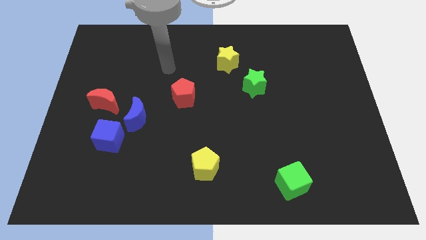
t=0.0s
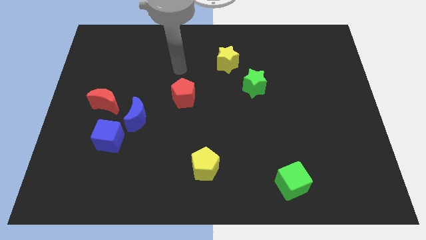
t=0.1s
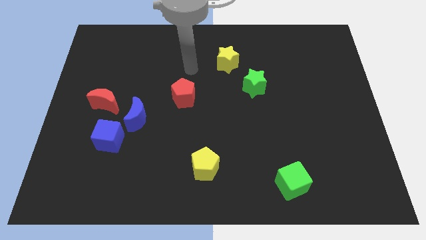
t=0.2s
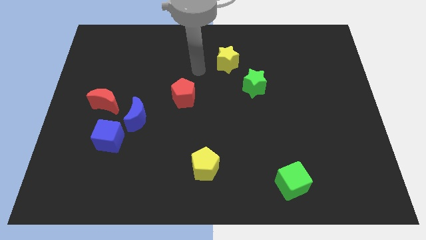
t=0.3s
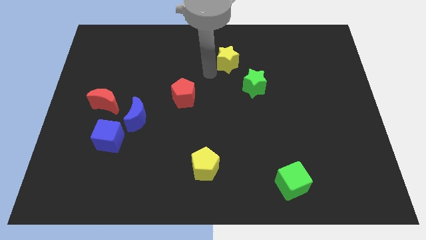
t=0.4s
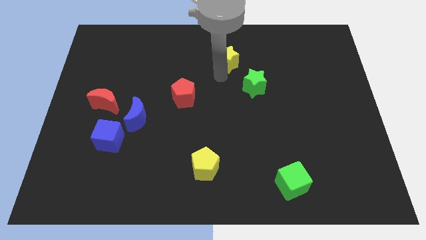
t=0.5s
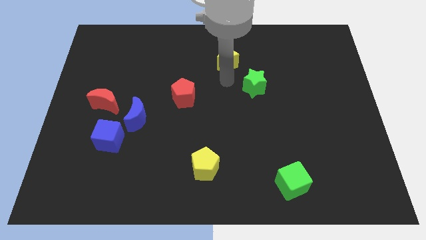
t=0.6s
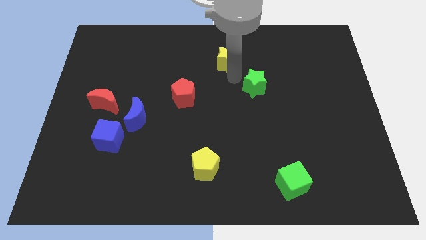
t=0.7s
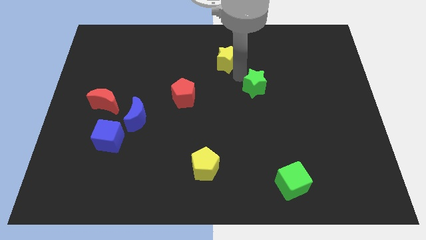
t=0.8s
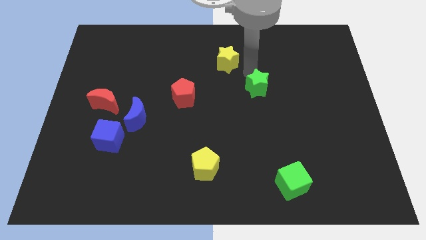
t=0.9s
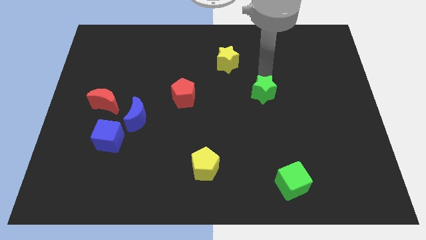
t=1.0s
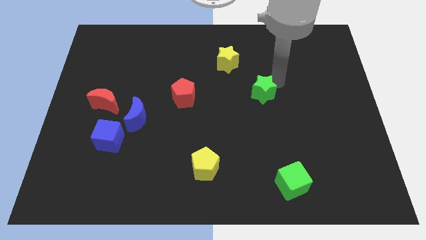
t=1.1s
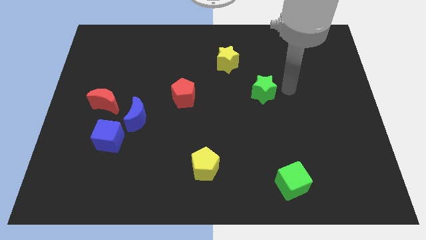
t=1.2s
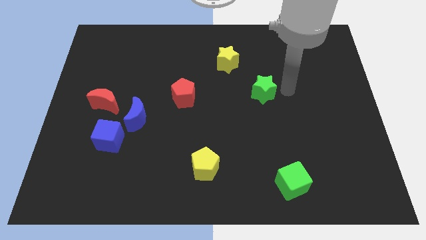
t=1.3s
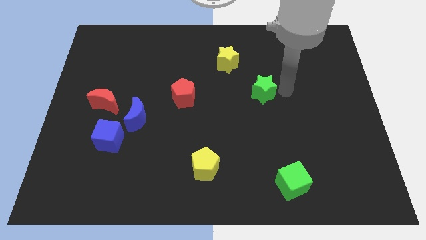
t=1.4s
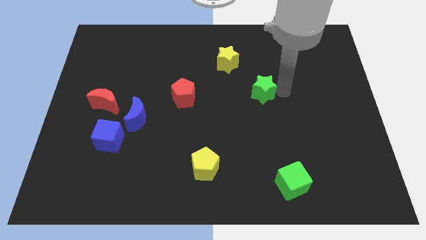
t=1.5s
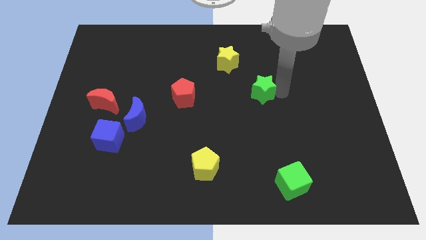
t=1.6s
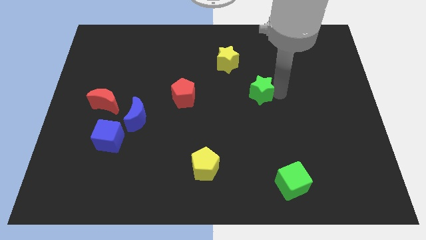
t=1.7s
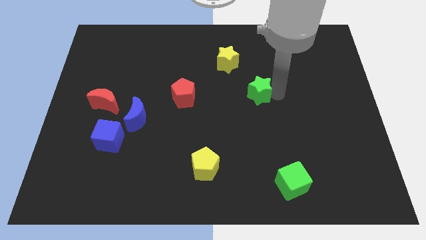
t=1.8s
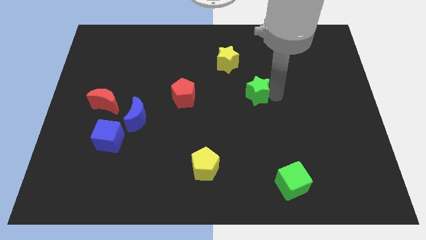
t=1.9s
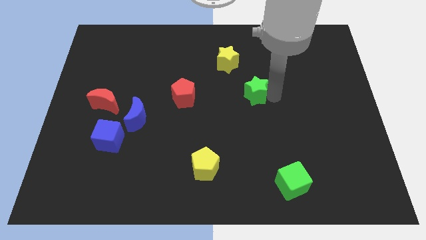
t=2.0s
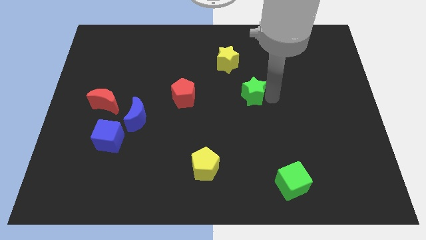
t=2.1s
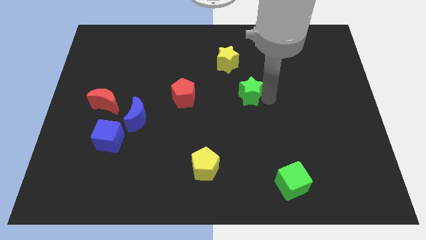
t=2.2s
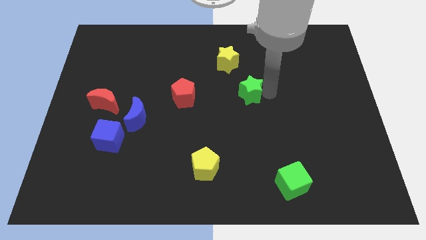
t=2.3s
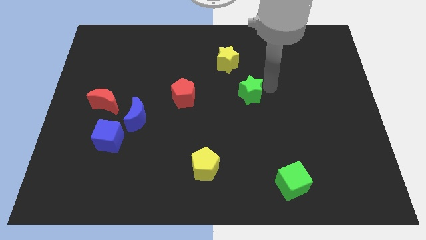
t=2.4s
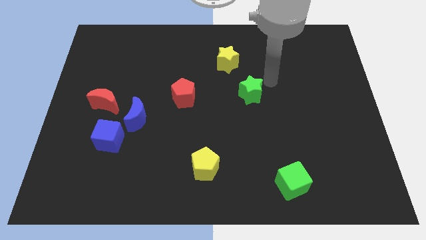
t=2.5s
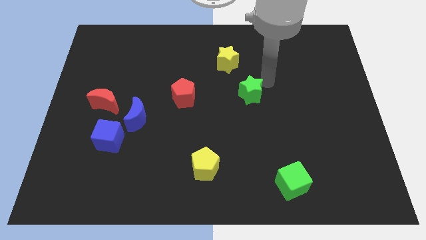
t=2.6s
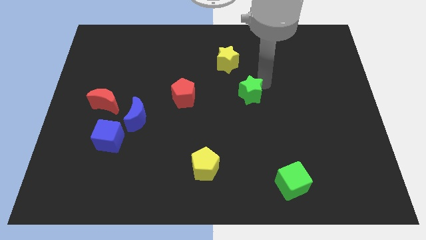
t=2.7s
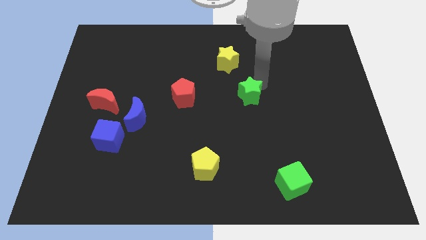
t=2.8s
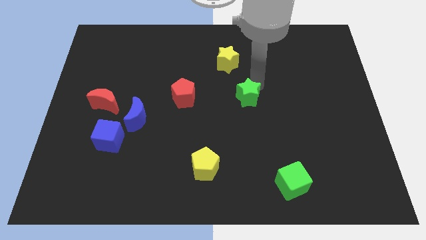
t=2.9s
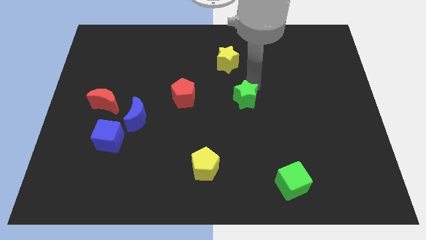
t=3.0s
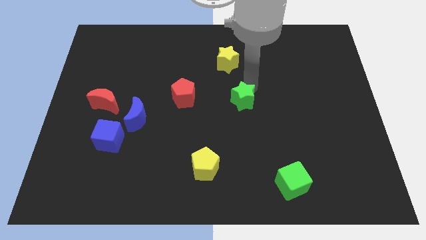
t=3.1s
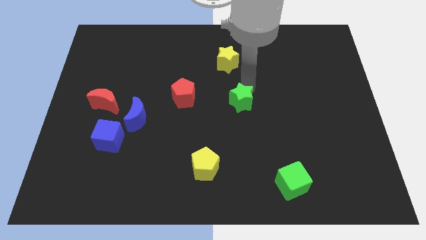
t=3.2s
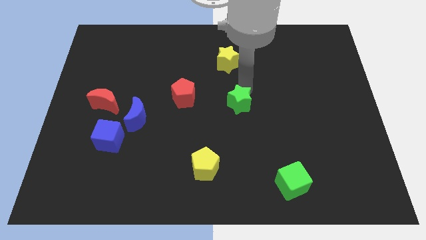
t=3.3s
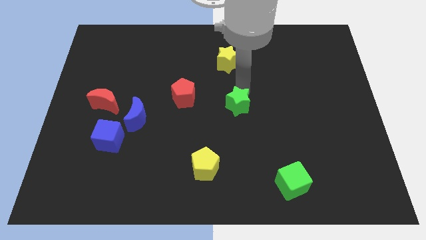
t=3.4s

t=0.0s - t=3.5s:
push the green star slightly downwards and left diagonally

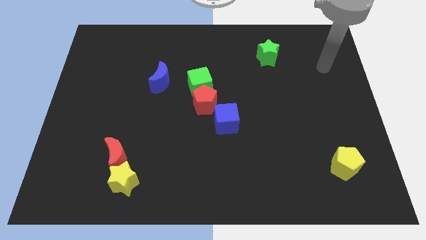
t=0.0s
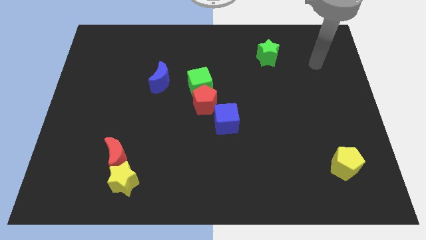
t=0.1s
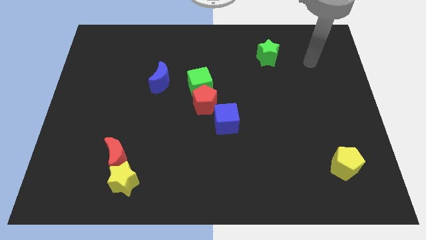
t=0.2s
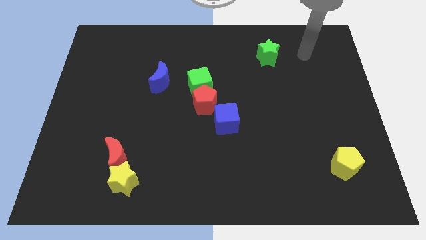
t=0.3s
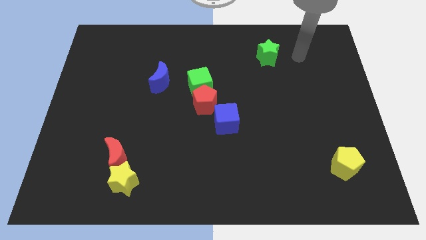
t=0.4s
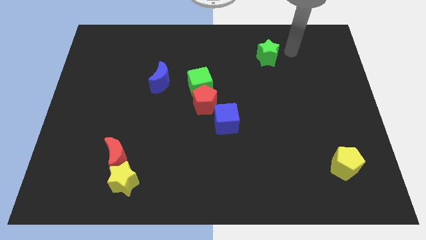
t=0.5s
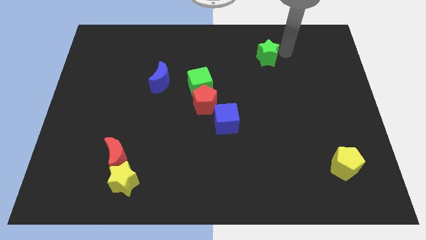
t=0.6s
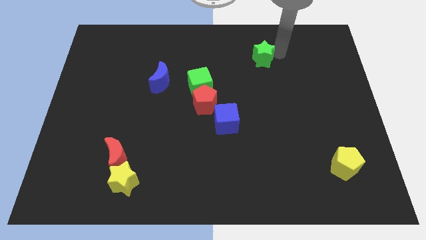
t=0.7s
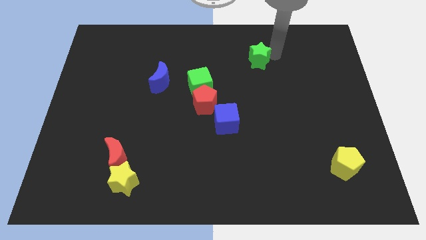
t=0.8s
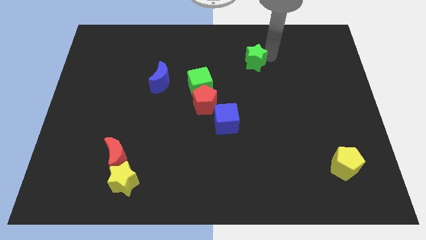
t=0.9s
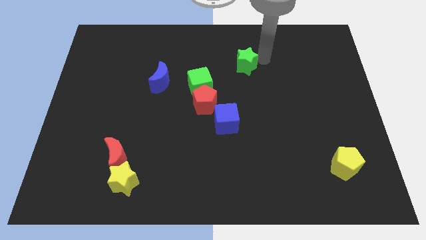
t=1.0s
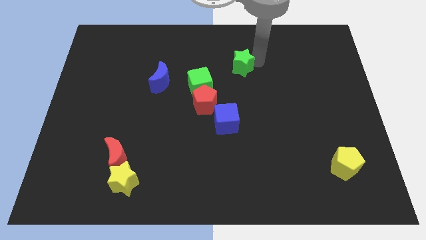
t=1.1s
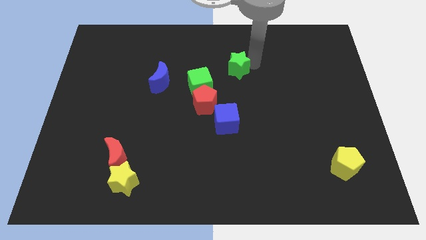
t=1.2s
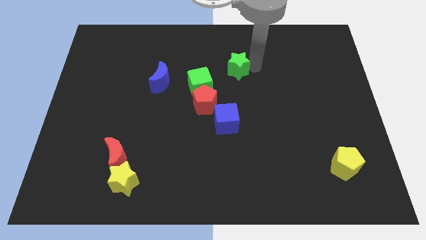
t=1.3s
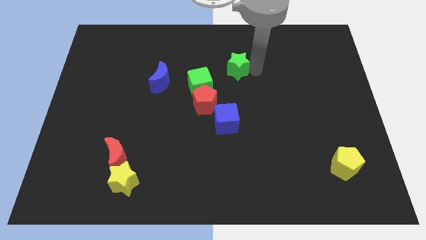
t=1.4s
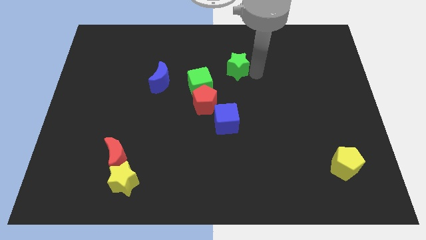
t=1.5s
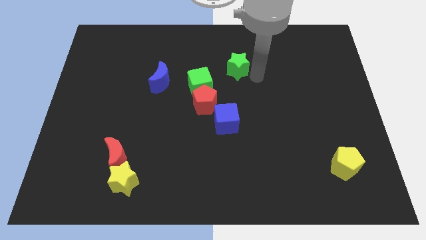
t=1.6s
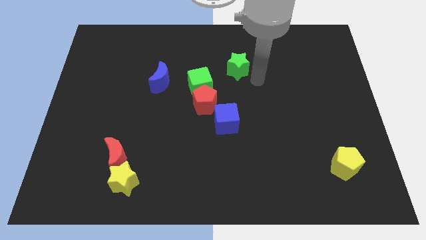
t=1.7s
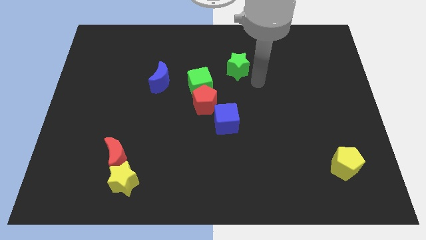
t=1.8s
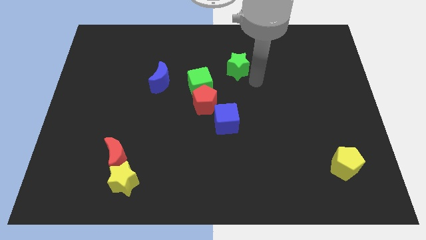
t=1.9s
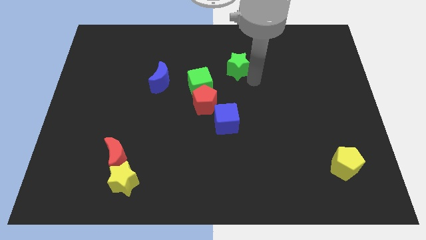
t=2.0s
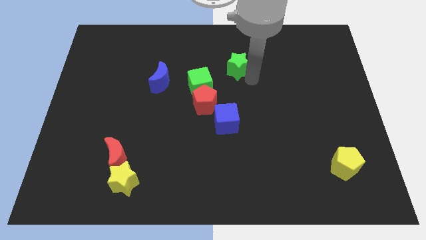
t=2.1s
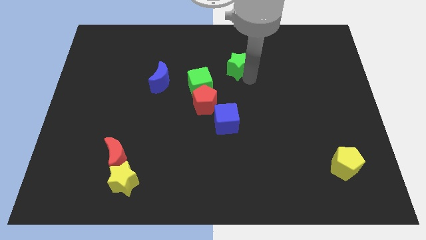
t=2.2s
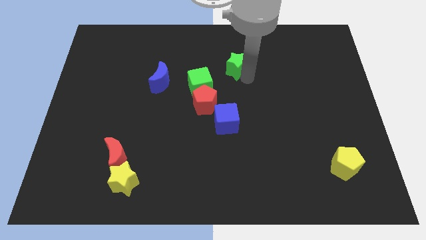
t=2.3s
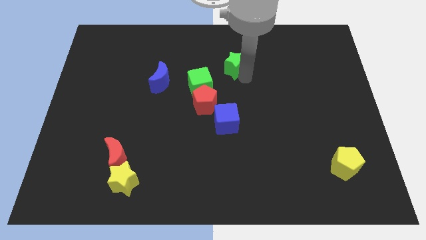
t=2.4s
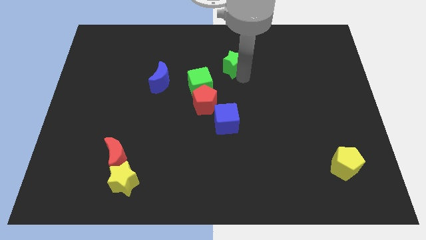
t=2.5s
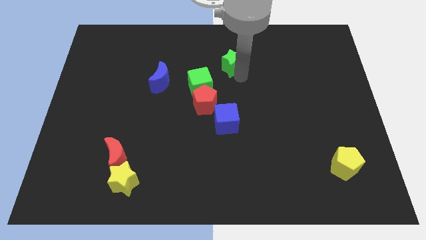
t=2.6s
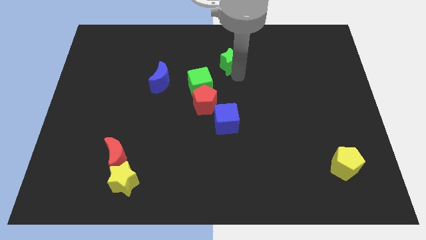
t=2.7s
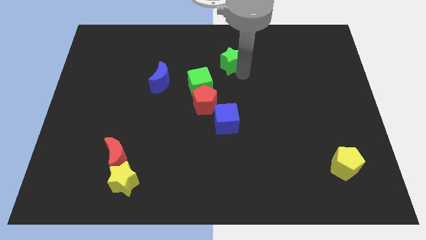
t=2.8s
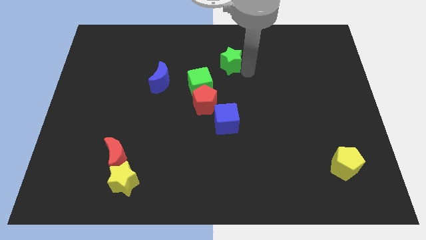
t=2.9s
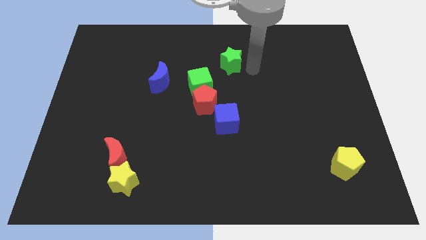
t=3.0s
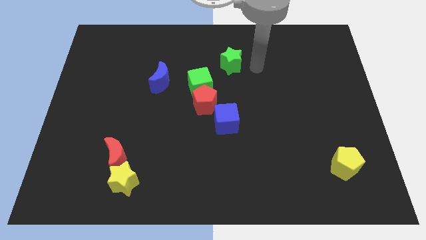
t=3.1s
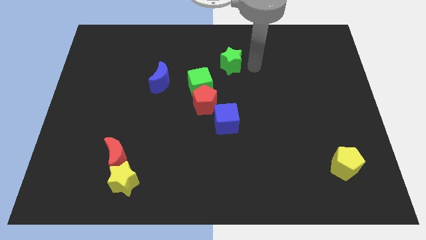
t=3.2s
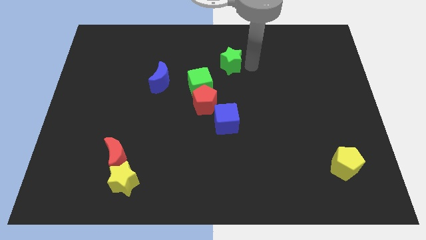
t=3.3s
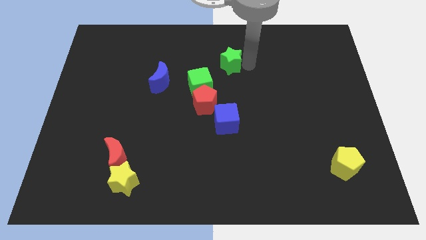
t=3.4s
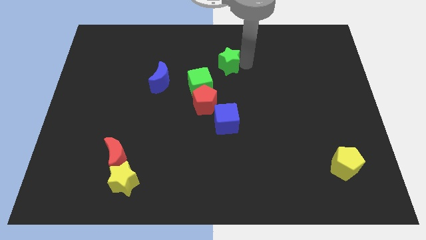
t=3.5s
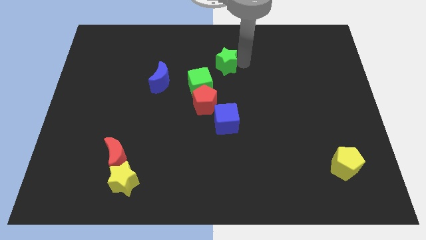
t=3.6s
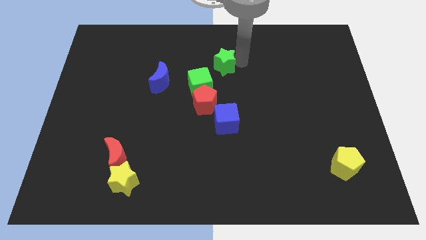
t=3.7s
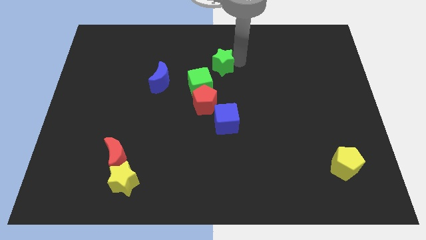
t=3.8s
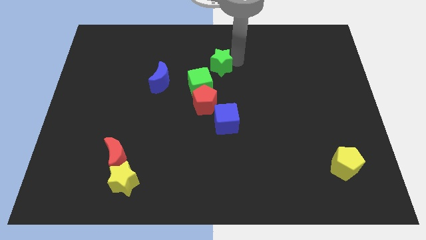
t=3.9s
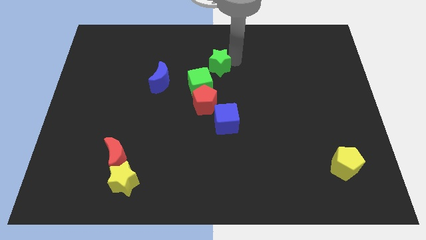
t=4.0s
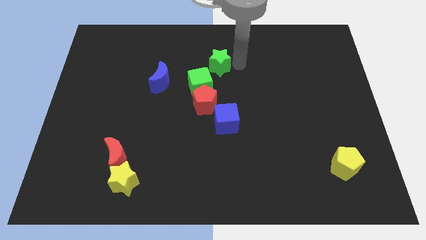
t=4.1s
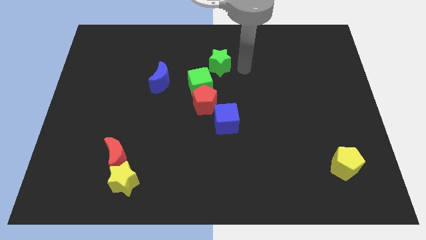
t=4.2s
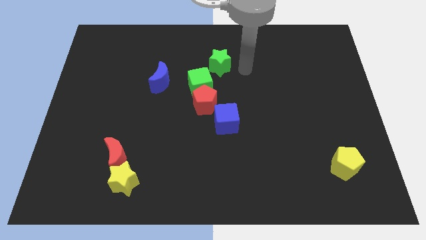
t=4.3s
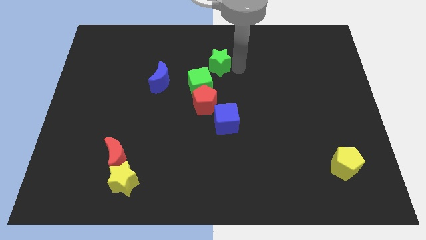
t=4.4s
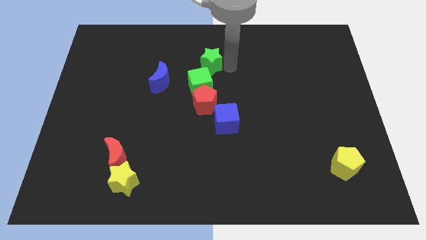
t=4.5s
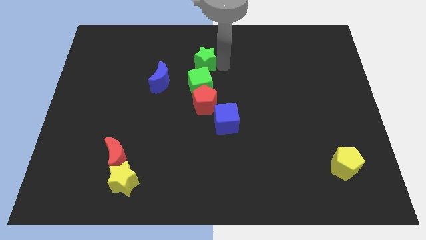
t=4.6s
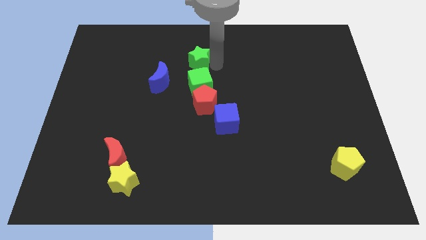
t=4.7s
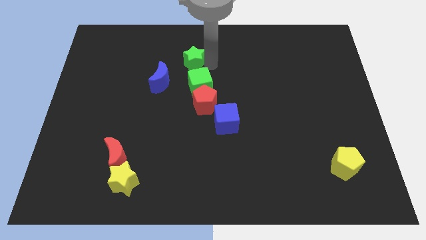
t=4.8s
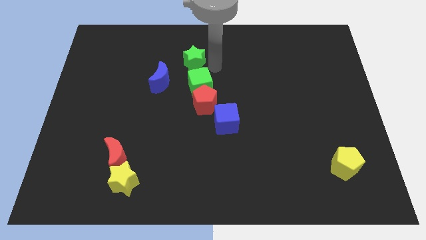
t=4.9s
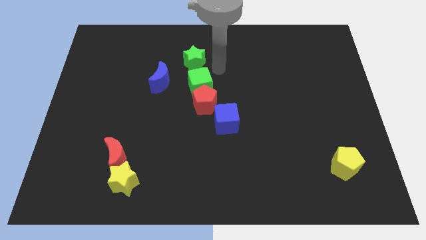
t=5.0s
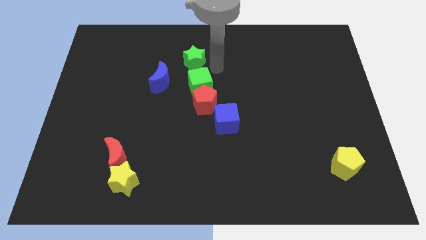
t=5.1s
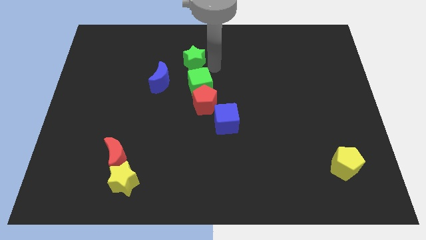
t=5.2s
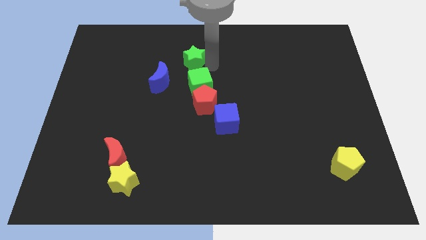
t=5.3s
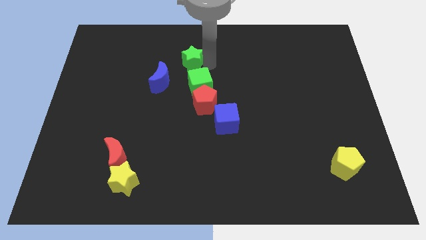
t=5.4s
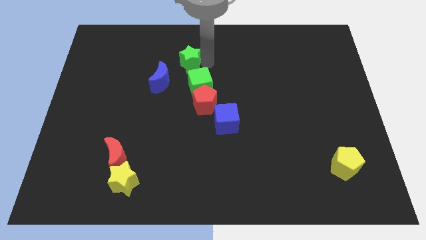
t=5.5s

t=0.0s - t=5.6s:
move the green star to the left
